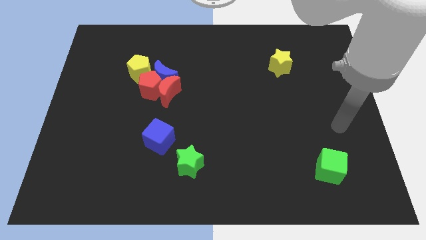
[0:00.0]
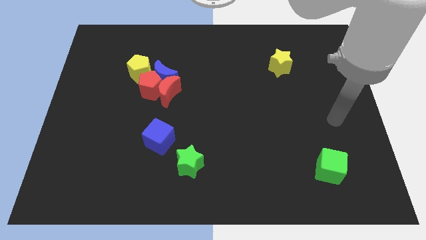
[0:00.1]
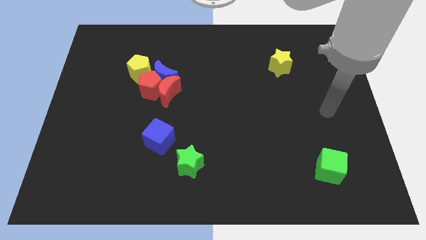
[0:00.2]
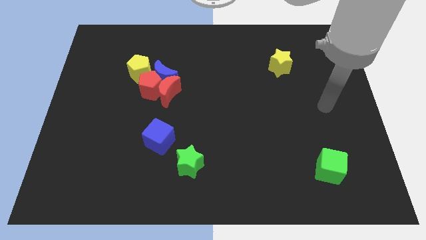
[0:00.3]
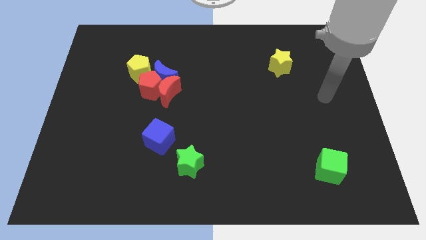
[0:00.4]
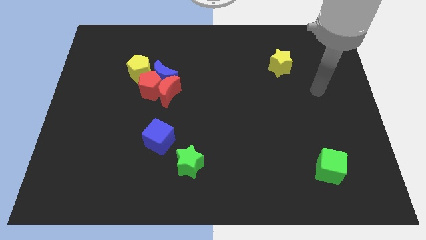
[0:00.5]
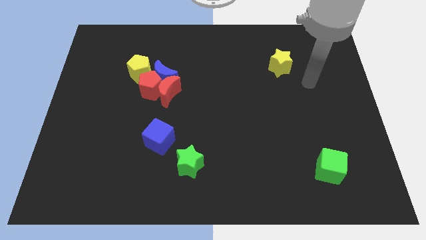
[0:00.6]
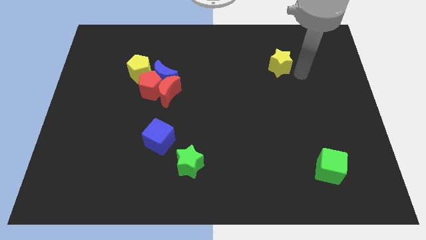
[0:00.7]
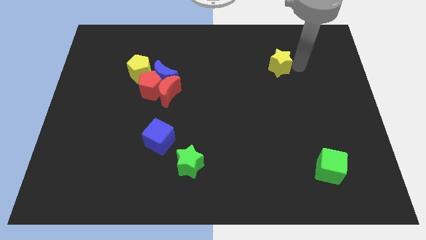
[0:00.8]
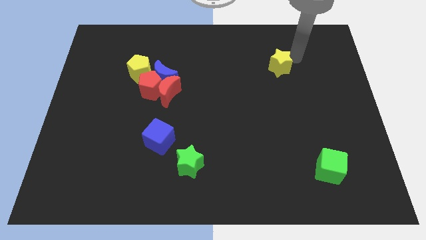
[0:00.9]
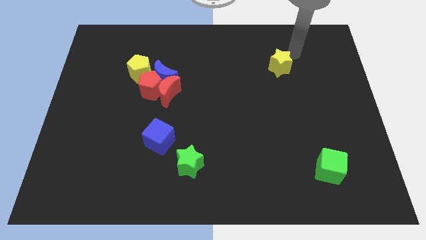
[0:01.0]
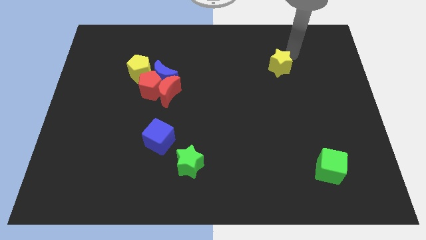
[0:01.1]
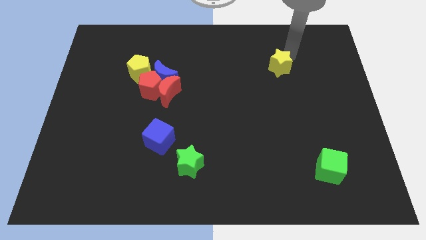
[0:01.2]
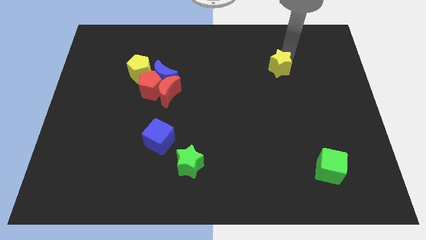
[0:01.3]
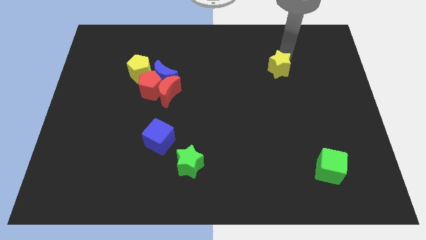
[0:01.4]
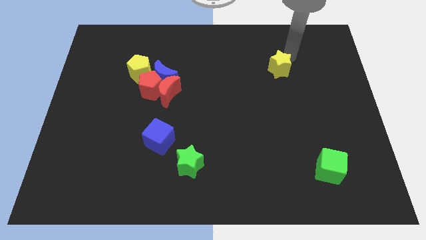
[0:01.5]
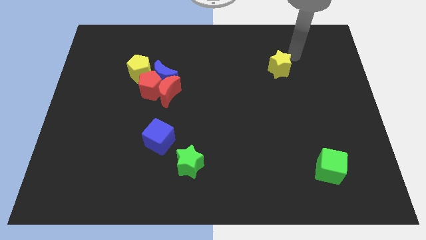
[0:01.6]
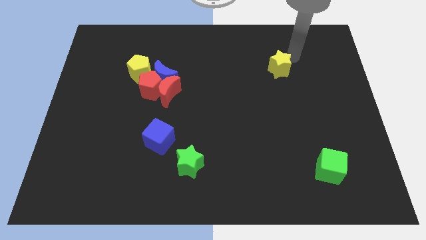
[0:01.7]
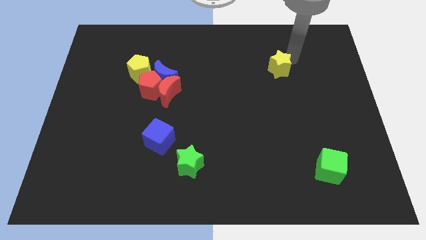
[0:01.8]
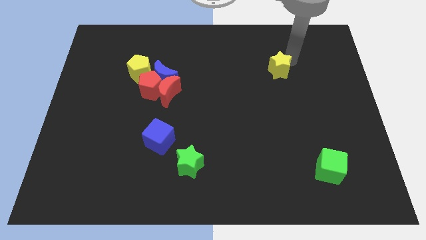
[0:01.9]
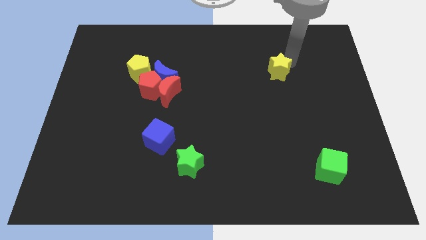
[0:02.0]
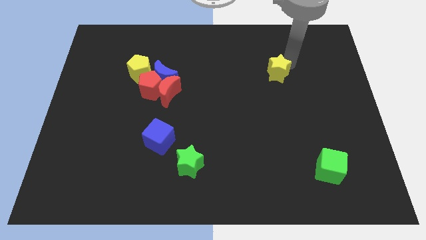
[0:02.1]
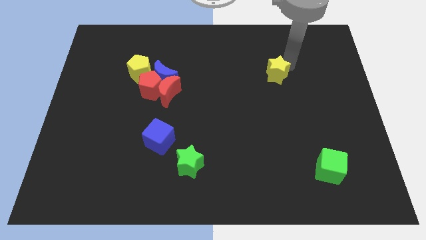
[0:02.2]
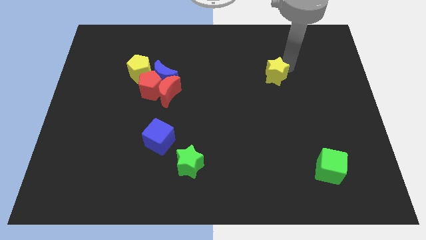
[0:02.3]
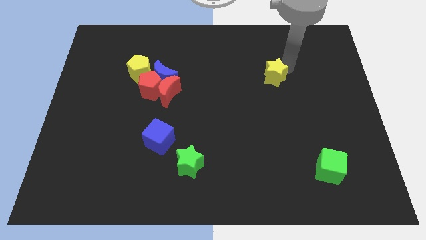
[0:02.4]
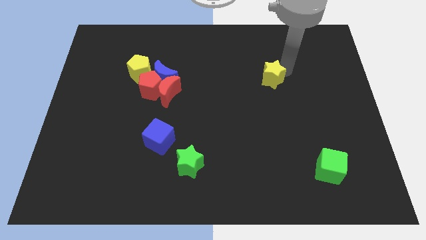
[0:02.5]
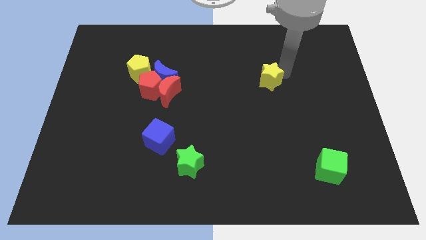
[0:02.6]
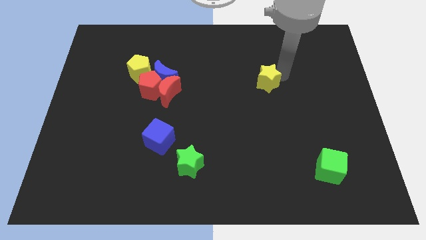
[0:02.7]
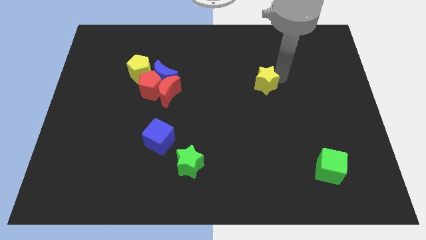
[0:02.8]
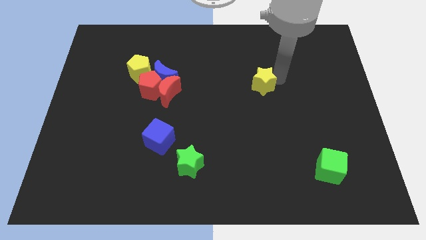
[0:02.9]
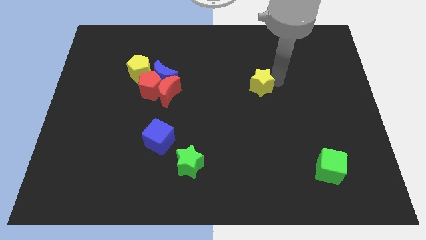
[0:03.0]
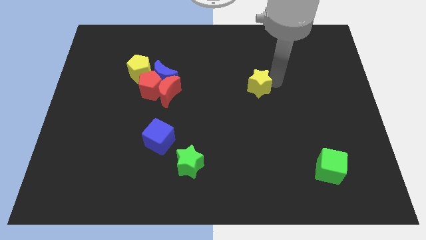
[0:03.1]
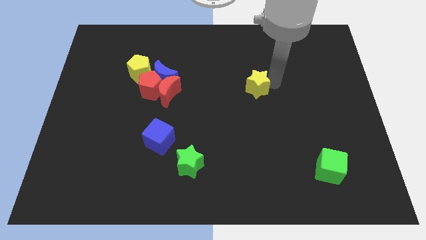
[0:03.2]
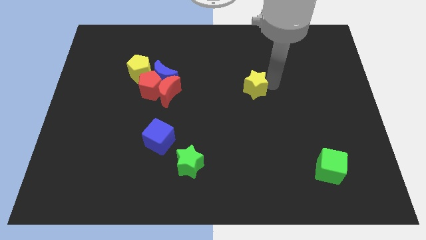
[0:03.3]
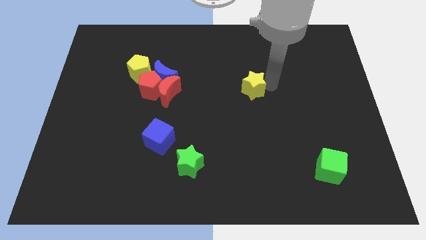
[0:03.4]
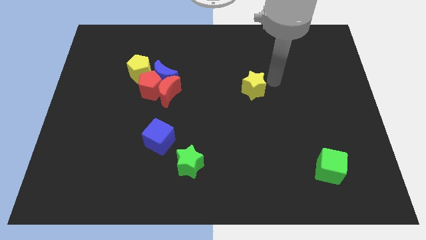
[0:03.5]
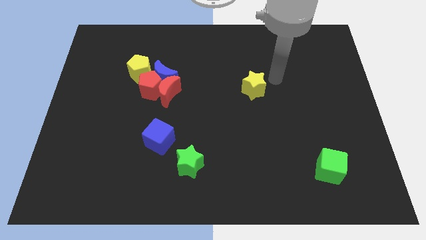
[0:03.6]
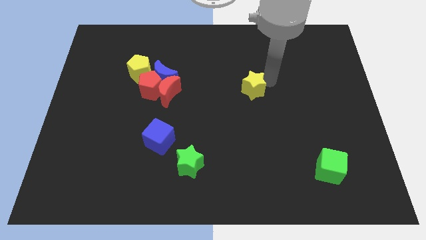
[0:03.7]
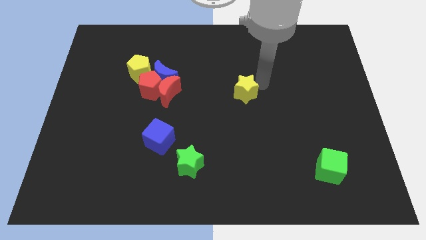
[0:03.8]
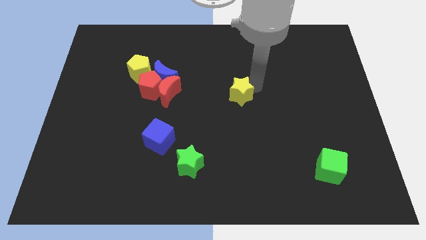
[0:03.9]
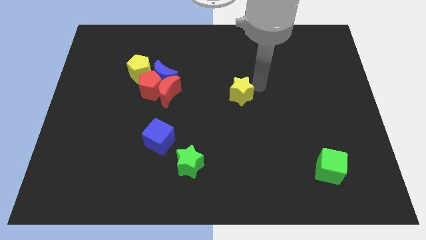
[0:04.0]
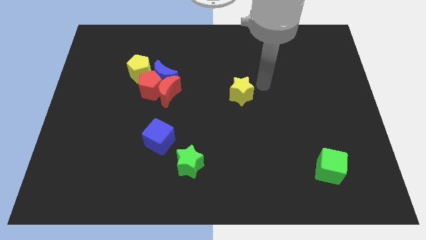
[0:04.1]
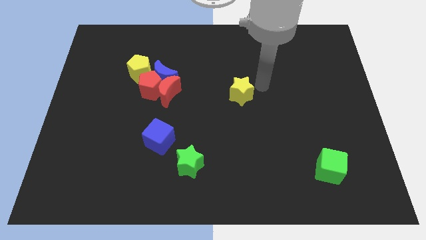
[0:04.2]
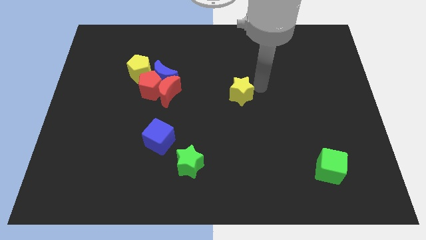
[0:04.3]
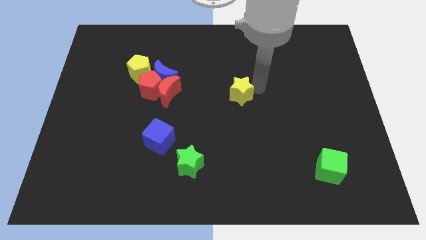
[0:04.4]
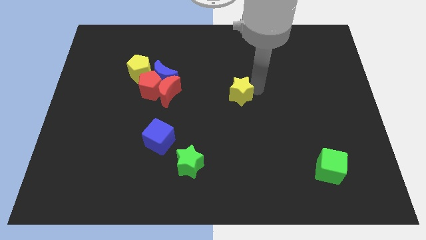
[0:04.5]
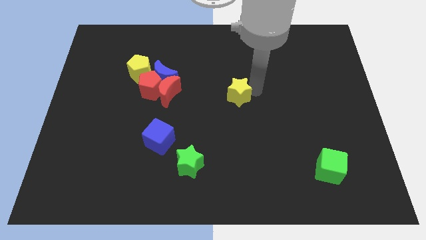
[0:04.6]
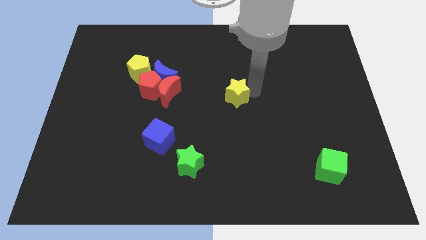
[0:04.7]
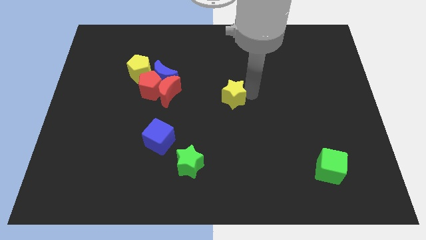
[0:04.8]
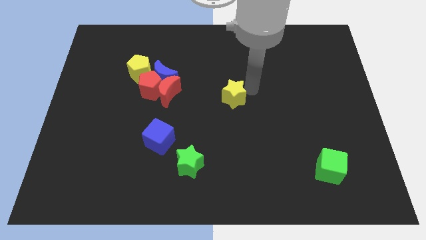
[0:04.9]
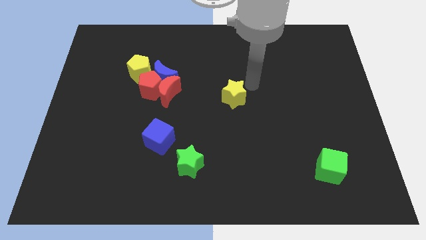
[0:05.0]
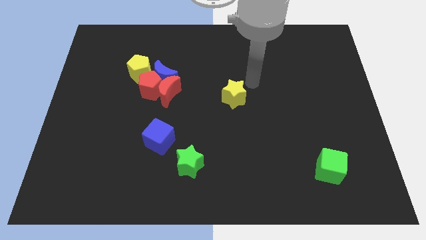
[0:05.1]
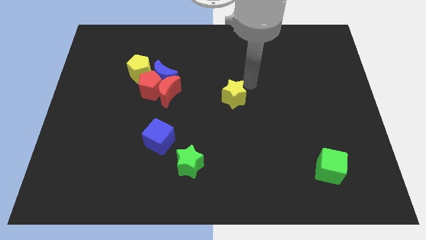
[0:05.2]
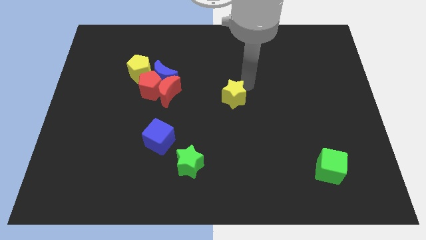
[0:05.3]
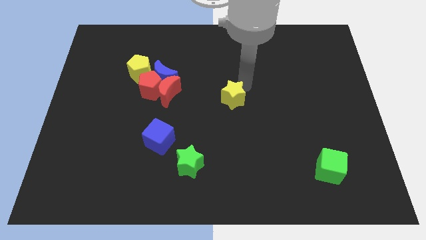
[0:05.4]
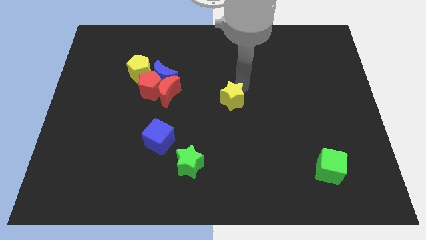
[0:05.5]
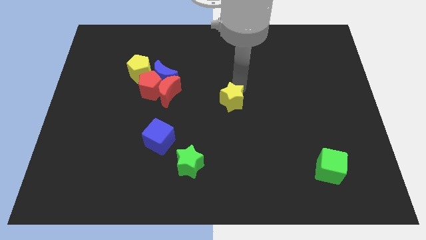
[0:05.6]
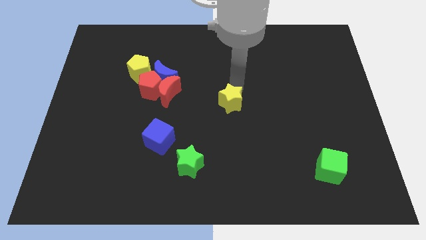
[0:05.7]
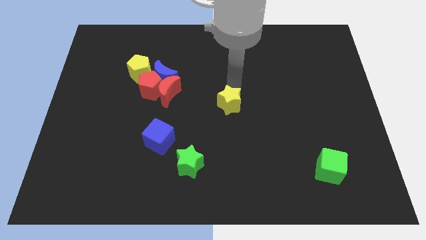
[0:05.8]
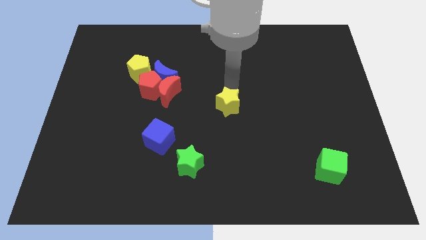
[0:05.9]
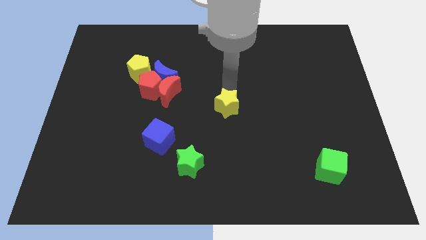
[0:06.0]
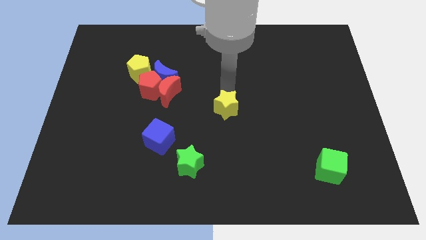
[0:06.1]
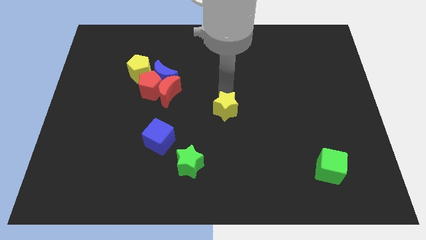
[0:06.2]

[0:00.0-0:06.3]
push the yellow star diagonally downwards and left

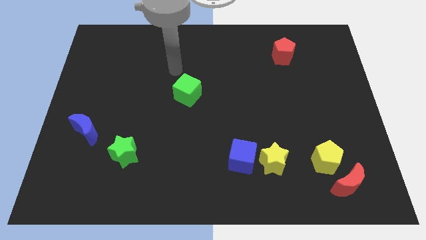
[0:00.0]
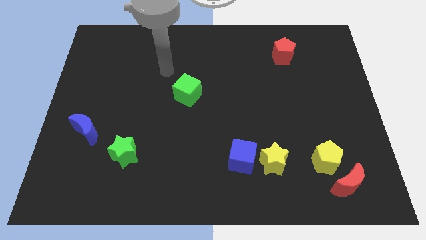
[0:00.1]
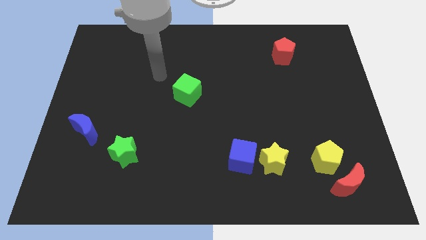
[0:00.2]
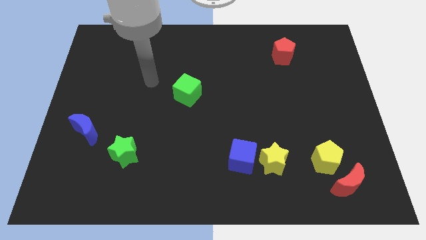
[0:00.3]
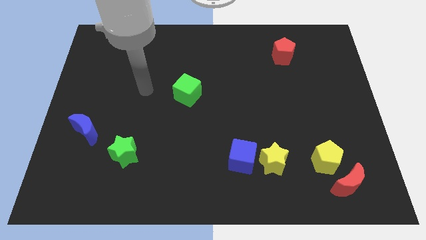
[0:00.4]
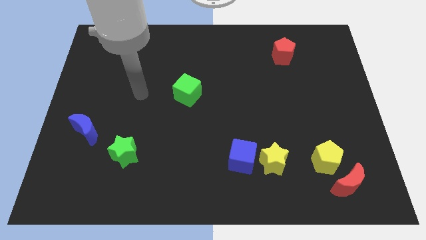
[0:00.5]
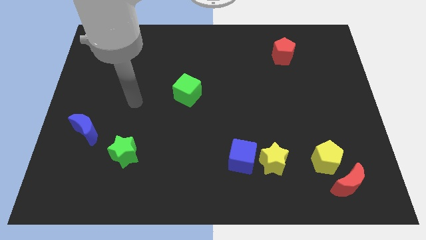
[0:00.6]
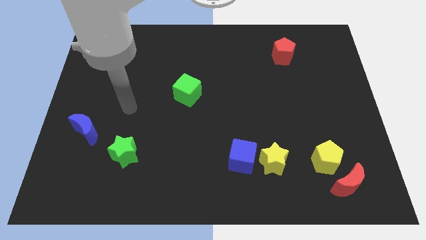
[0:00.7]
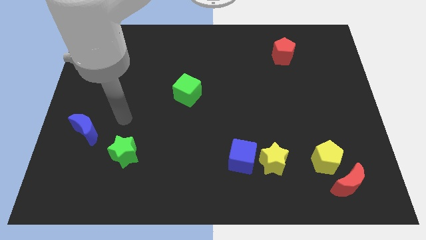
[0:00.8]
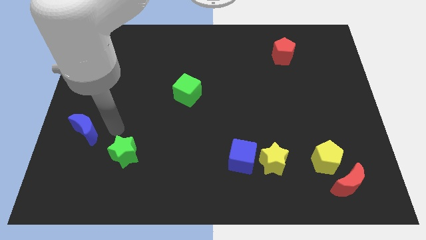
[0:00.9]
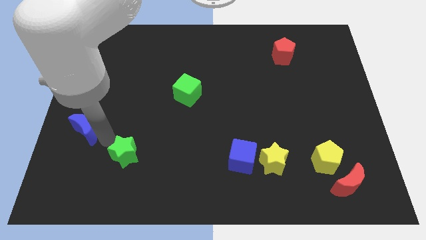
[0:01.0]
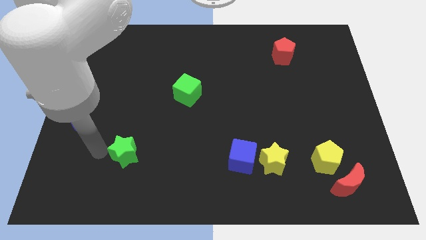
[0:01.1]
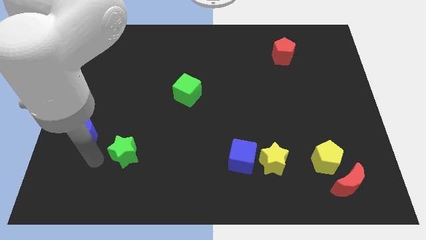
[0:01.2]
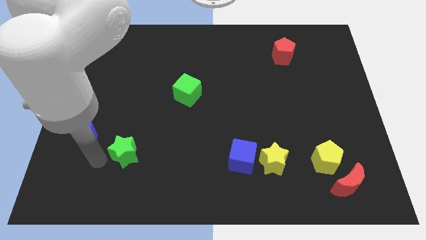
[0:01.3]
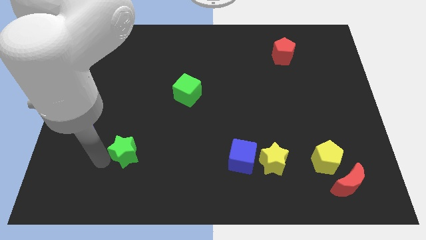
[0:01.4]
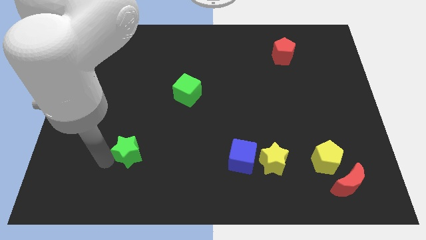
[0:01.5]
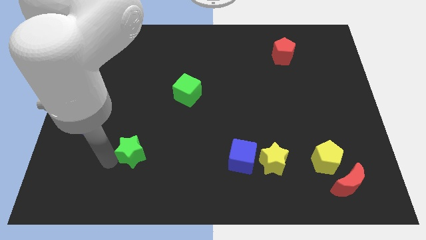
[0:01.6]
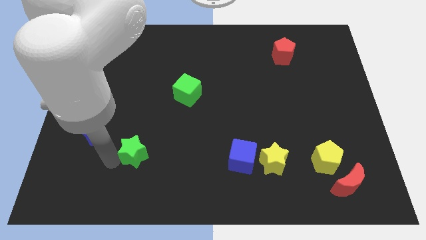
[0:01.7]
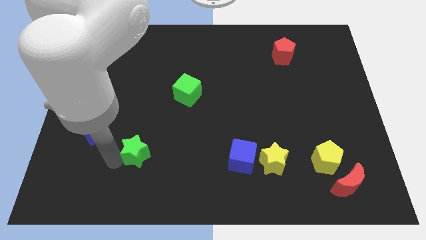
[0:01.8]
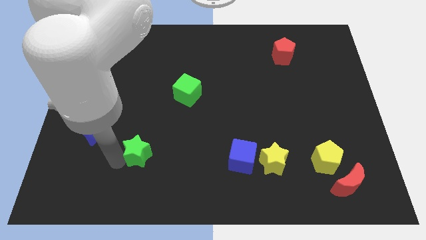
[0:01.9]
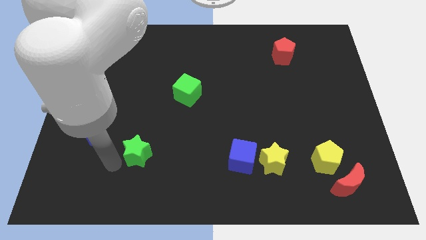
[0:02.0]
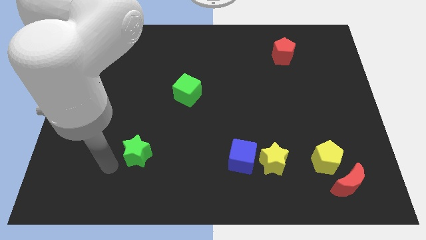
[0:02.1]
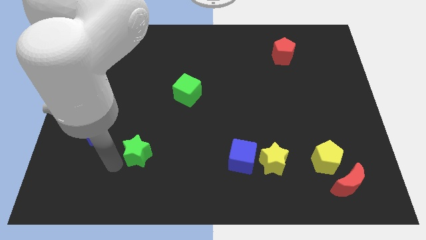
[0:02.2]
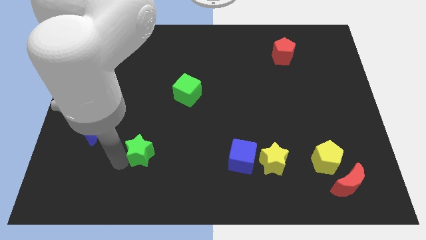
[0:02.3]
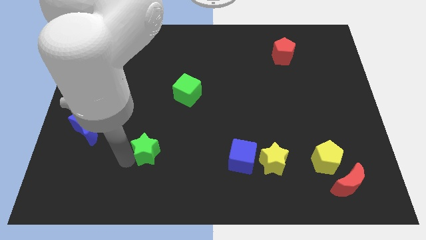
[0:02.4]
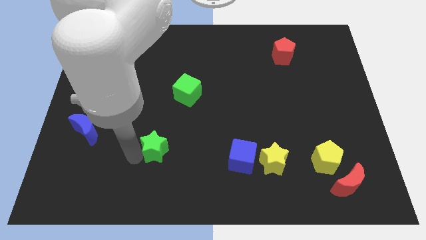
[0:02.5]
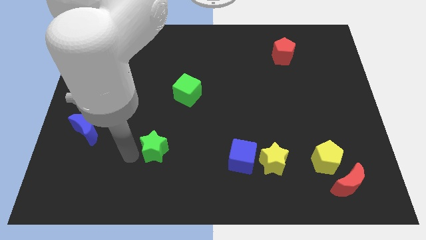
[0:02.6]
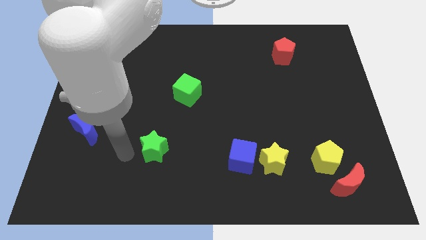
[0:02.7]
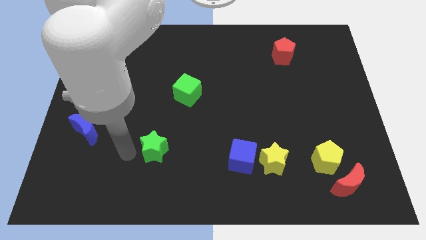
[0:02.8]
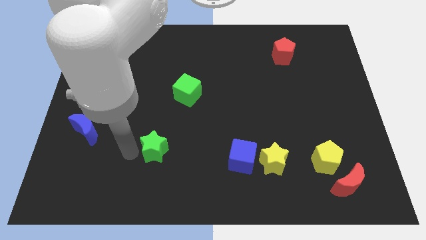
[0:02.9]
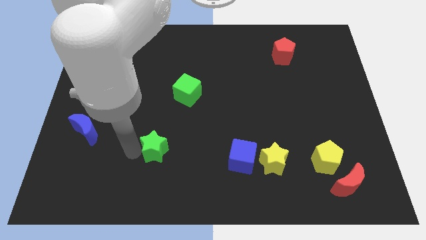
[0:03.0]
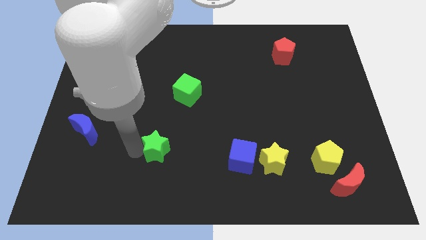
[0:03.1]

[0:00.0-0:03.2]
move the green star right somewhat
